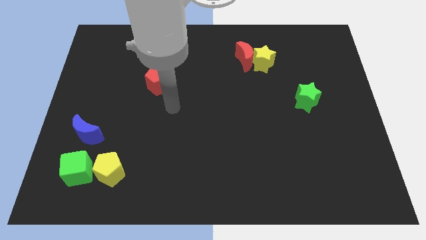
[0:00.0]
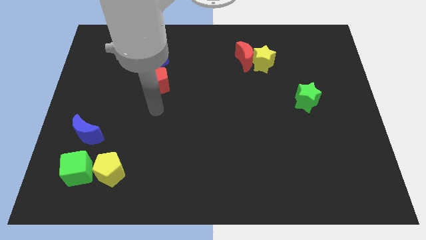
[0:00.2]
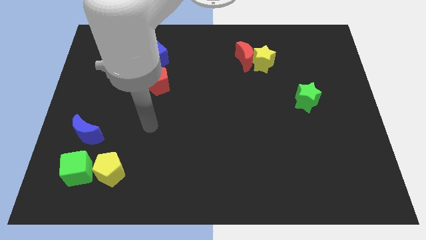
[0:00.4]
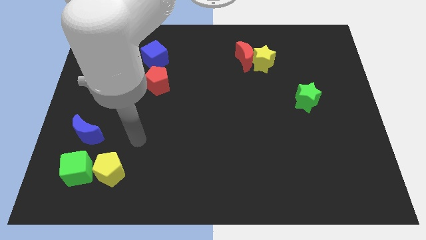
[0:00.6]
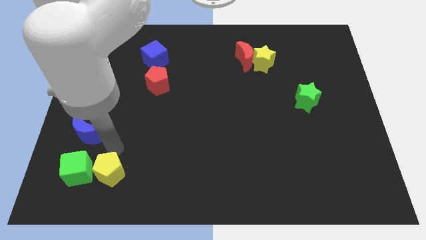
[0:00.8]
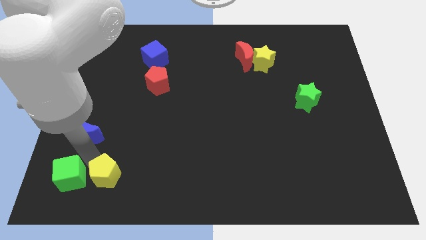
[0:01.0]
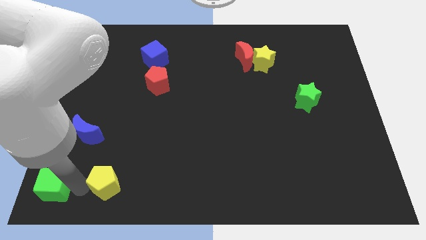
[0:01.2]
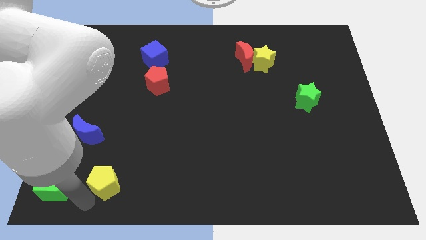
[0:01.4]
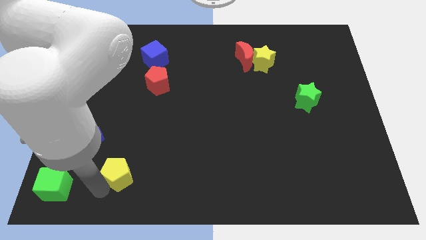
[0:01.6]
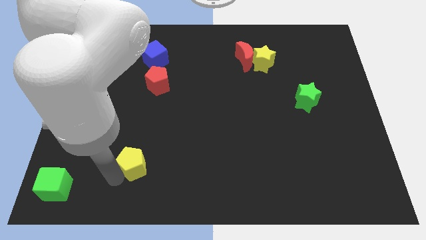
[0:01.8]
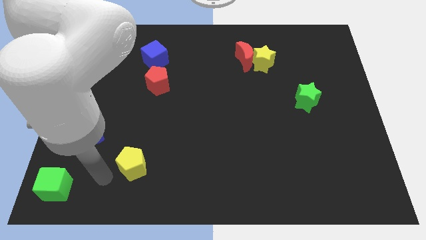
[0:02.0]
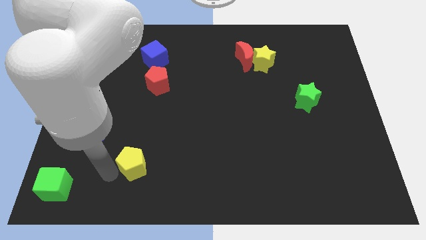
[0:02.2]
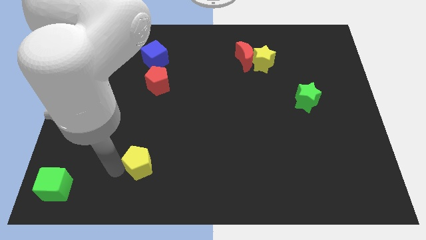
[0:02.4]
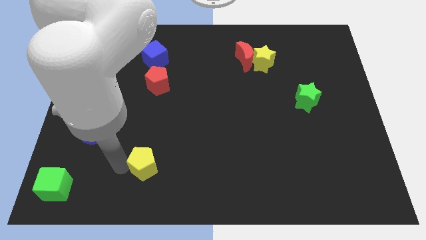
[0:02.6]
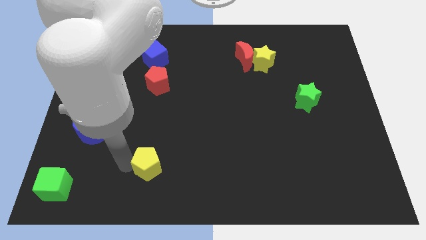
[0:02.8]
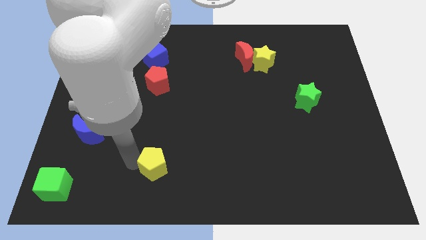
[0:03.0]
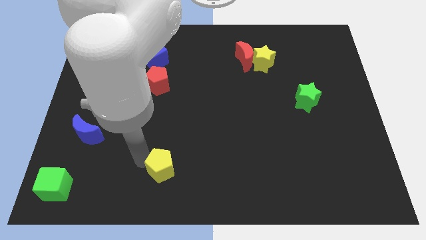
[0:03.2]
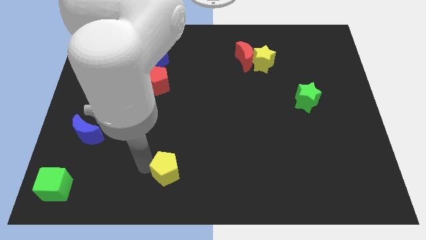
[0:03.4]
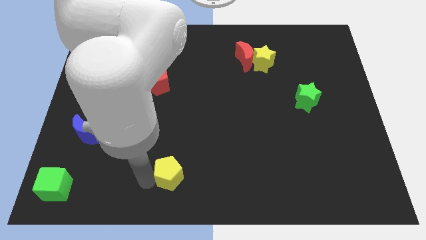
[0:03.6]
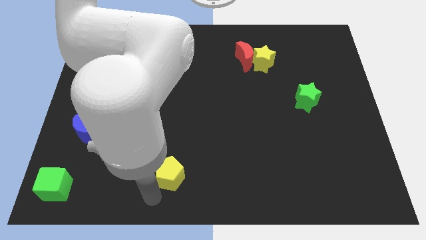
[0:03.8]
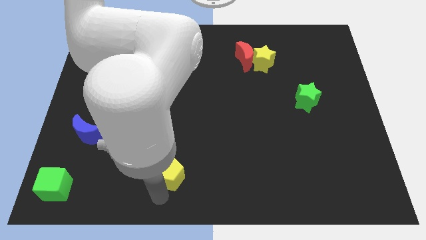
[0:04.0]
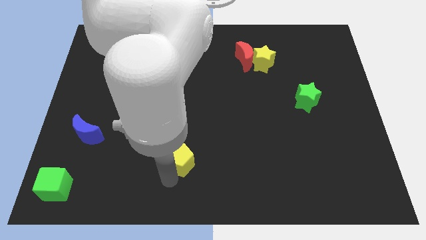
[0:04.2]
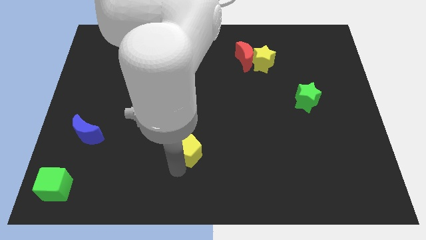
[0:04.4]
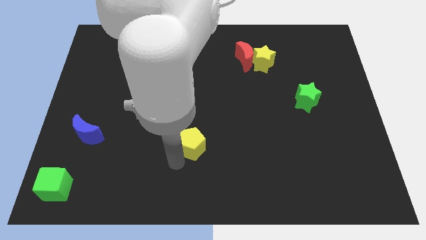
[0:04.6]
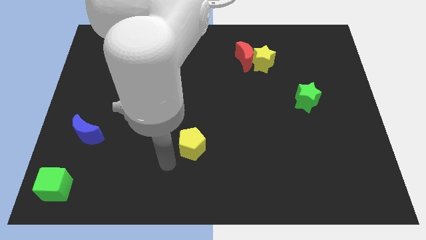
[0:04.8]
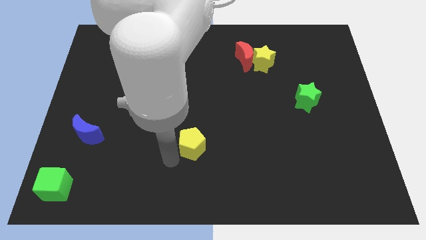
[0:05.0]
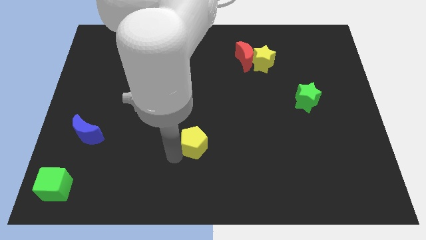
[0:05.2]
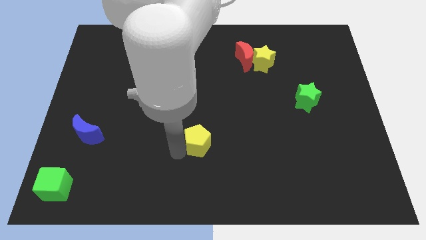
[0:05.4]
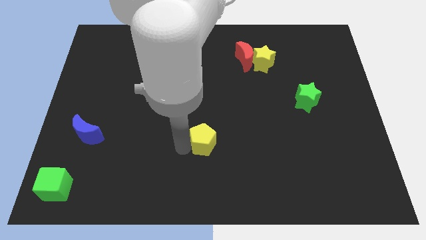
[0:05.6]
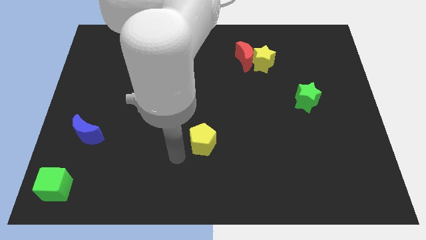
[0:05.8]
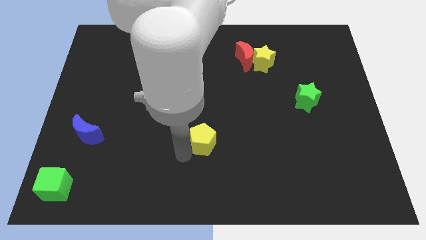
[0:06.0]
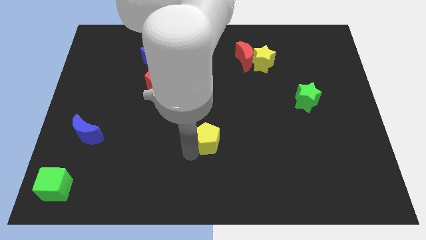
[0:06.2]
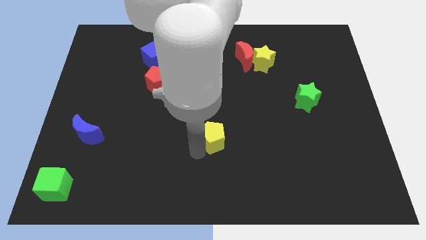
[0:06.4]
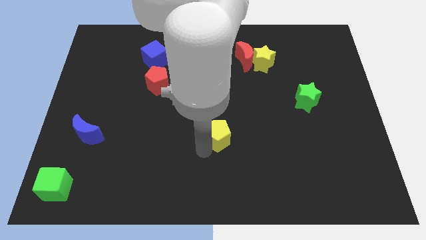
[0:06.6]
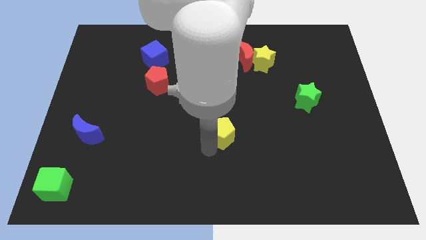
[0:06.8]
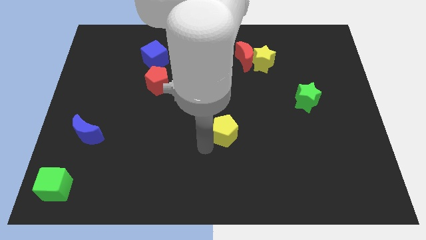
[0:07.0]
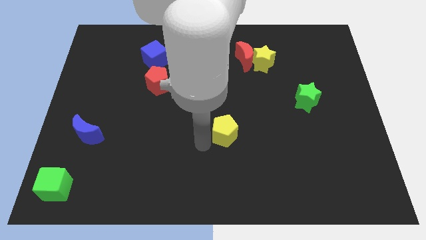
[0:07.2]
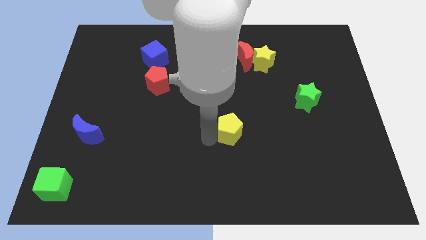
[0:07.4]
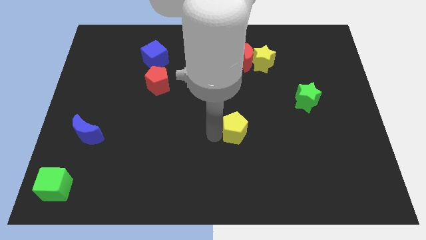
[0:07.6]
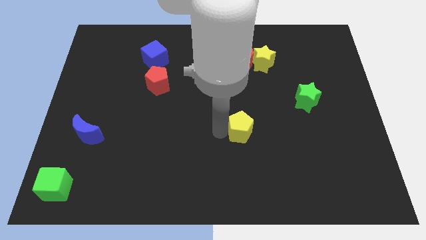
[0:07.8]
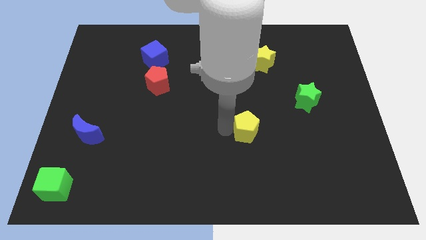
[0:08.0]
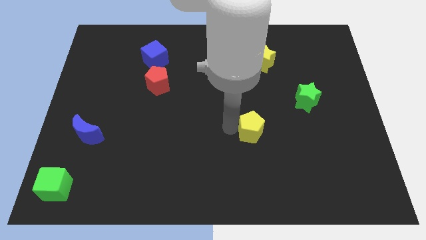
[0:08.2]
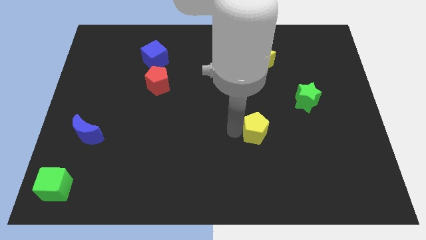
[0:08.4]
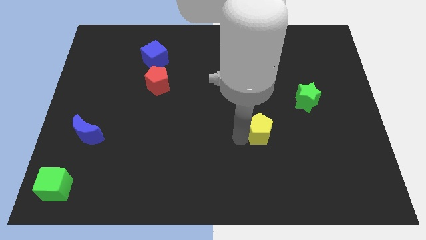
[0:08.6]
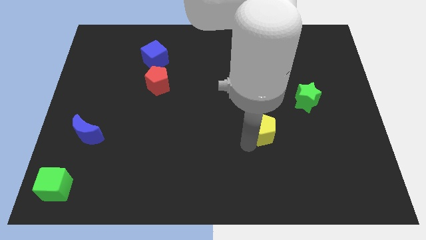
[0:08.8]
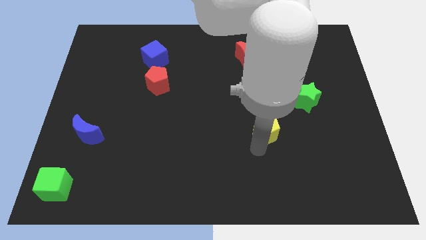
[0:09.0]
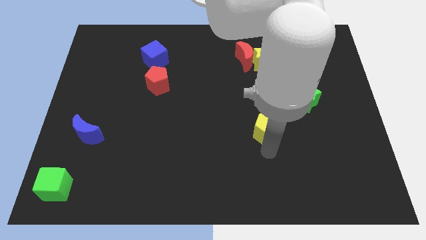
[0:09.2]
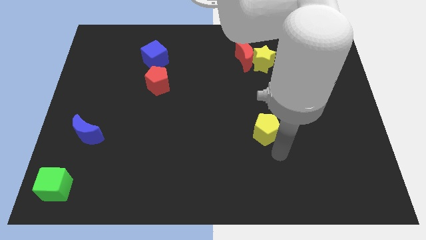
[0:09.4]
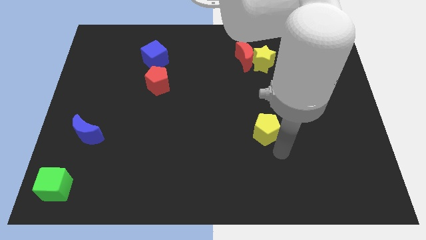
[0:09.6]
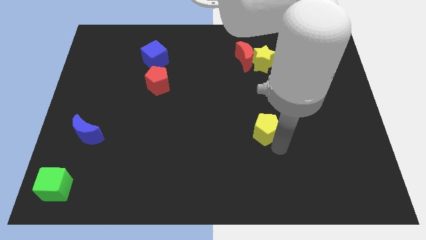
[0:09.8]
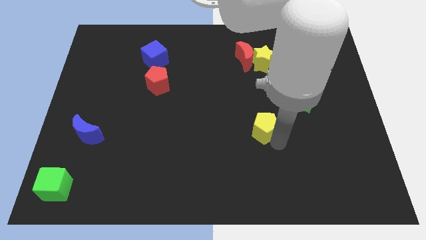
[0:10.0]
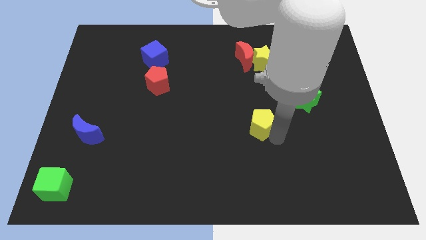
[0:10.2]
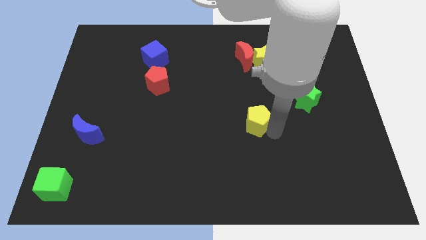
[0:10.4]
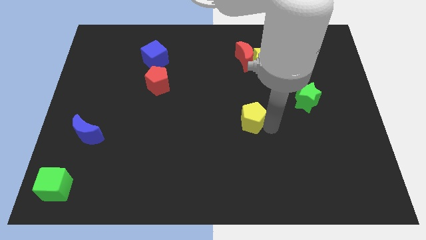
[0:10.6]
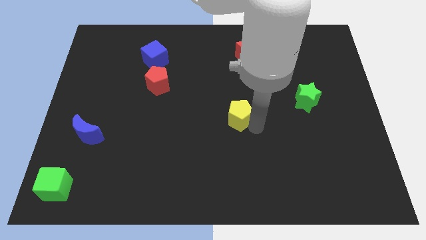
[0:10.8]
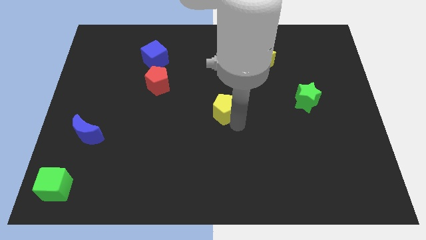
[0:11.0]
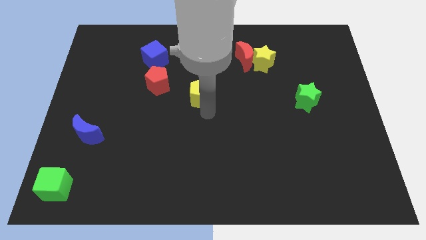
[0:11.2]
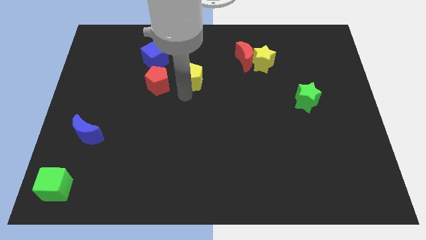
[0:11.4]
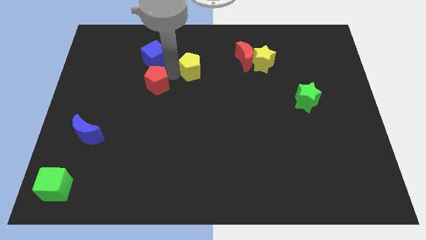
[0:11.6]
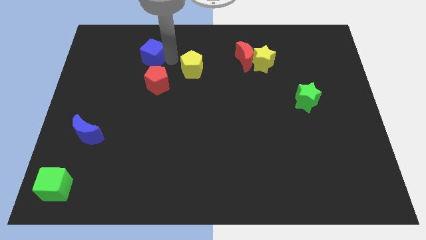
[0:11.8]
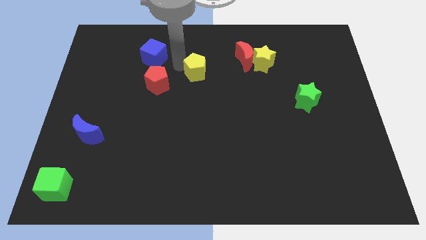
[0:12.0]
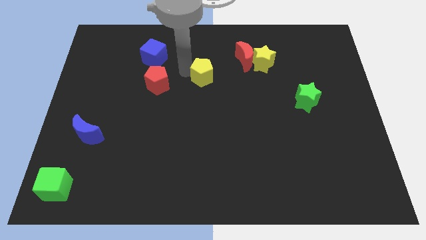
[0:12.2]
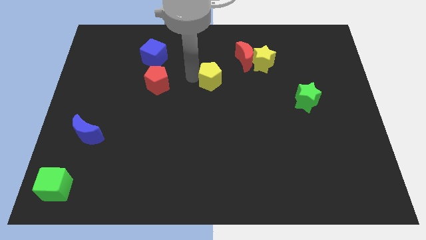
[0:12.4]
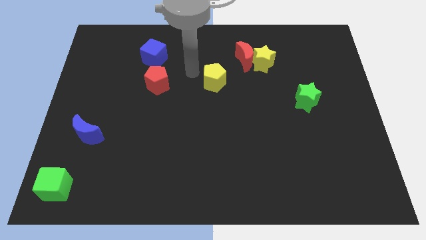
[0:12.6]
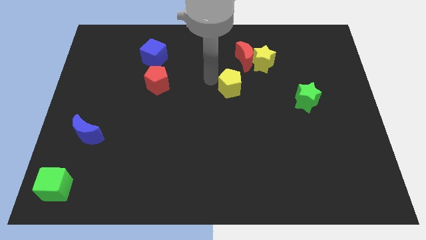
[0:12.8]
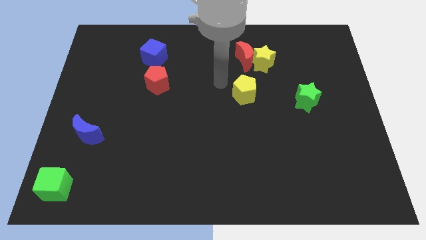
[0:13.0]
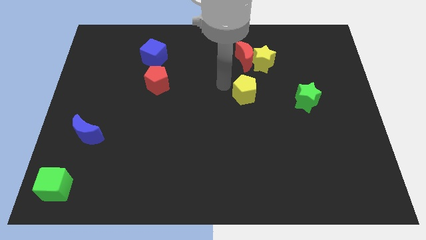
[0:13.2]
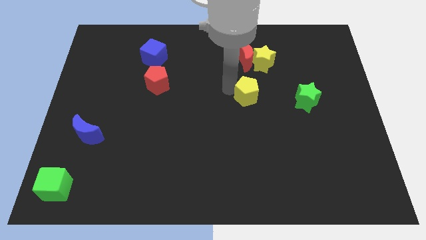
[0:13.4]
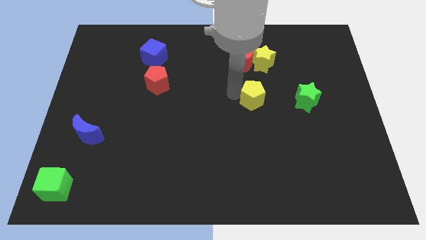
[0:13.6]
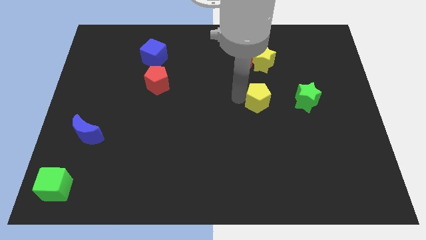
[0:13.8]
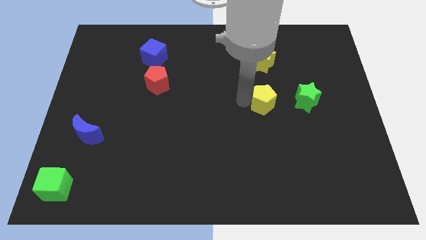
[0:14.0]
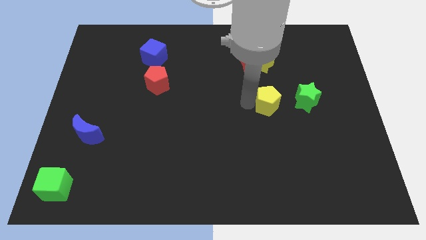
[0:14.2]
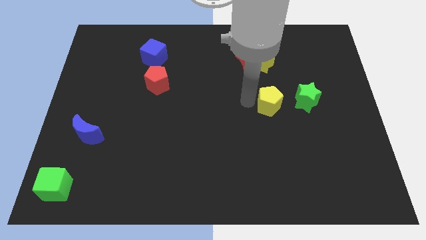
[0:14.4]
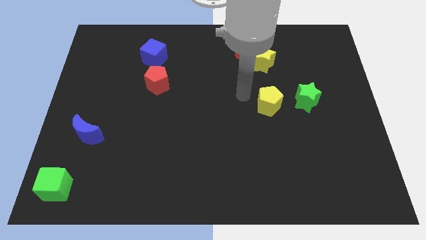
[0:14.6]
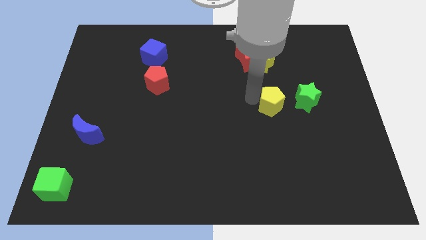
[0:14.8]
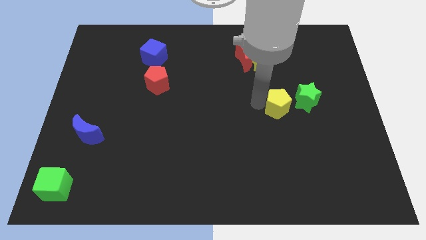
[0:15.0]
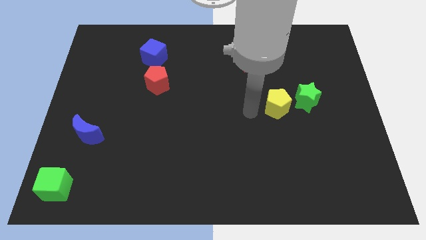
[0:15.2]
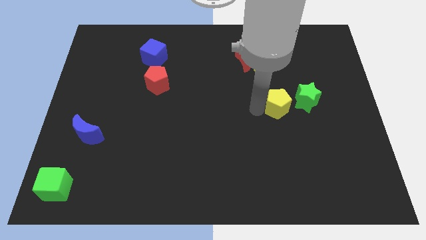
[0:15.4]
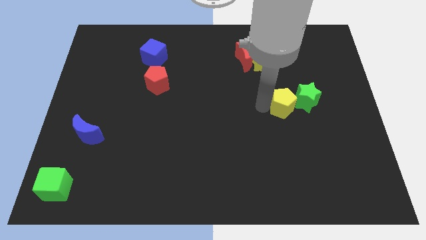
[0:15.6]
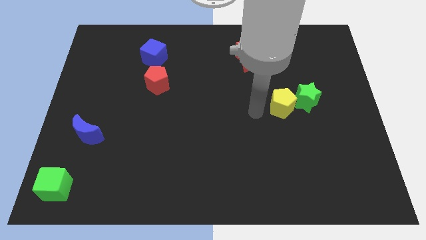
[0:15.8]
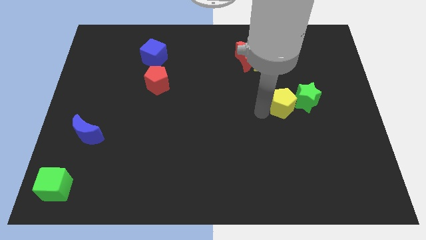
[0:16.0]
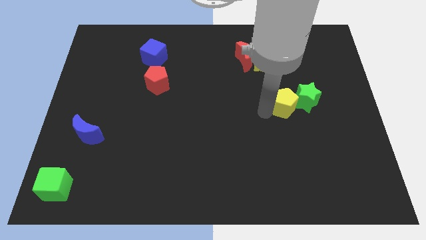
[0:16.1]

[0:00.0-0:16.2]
push the yellow pentagon towards the green star
